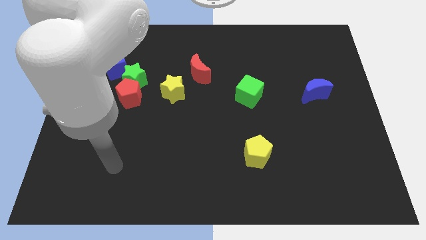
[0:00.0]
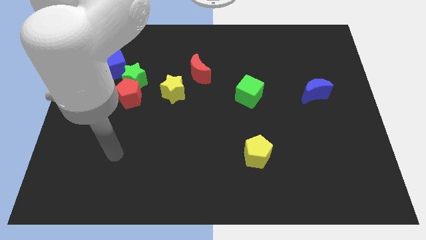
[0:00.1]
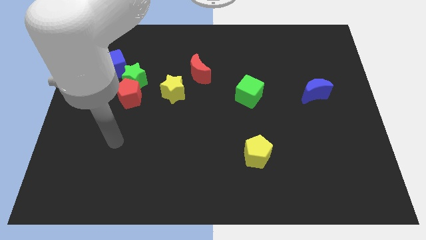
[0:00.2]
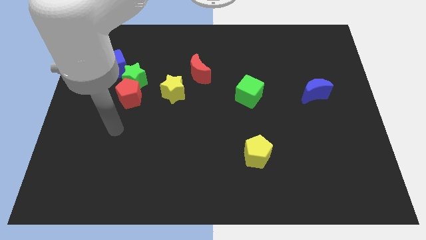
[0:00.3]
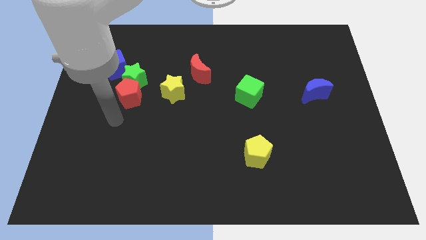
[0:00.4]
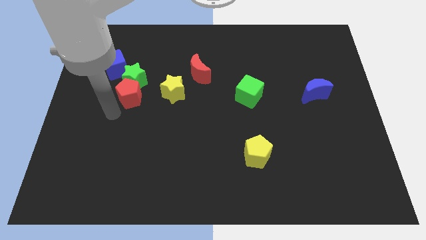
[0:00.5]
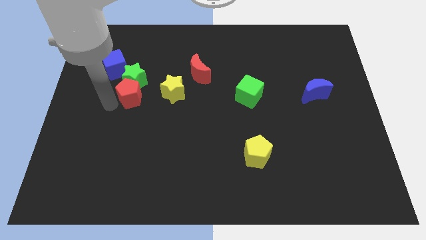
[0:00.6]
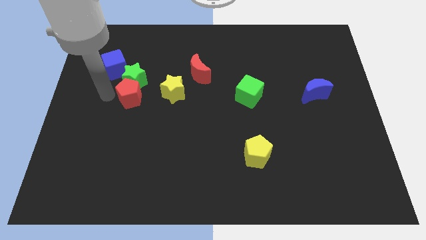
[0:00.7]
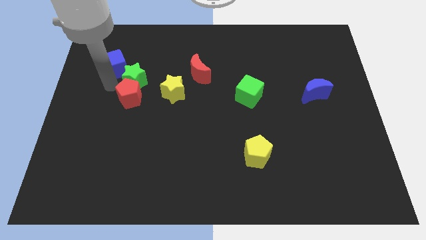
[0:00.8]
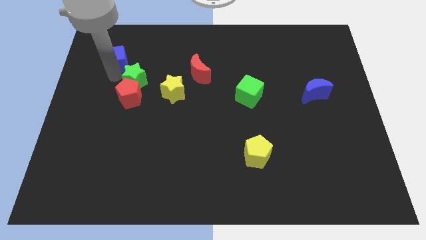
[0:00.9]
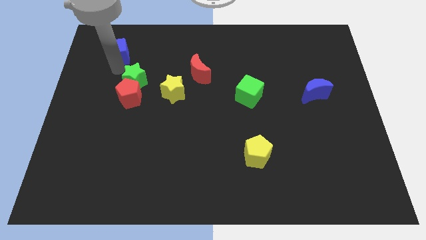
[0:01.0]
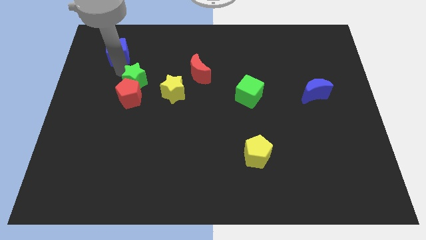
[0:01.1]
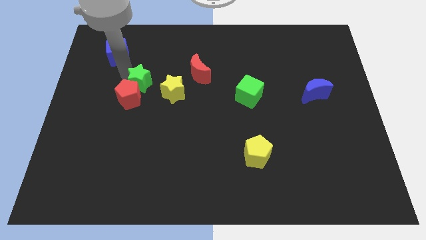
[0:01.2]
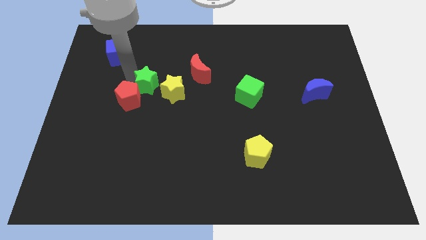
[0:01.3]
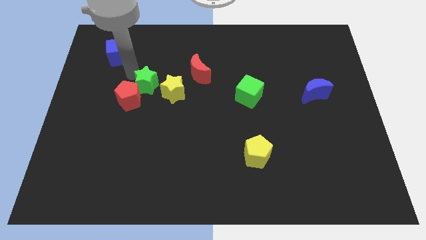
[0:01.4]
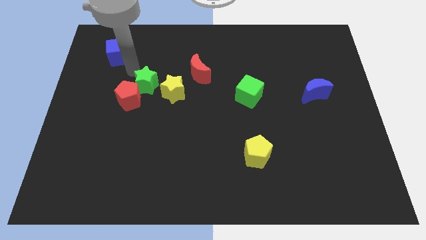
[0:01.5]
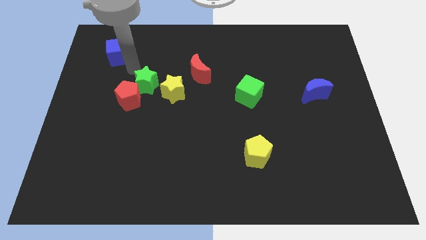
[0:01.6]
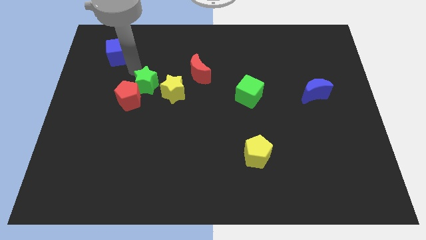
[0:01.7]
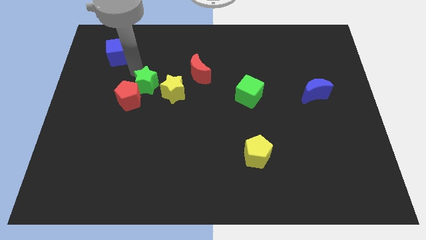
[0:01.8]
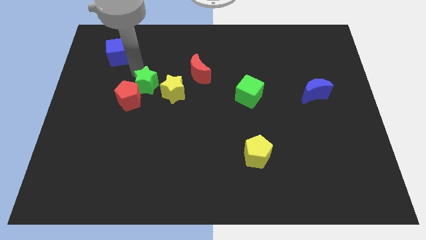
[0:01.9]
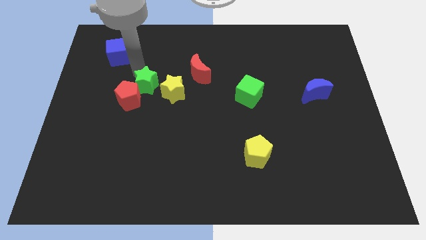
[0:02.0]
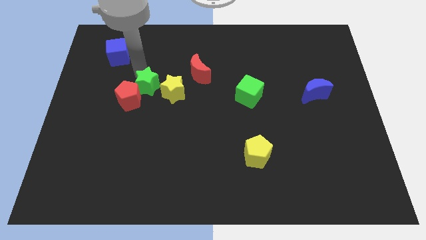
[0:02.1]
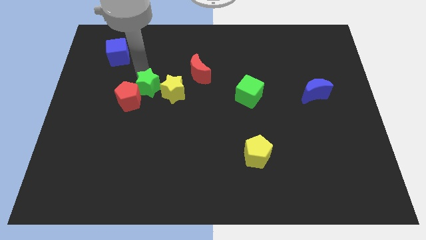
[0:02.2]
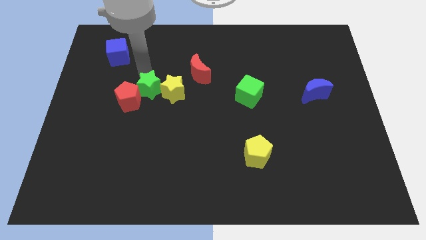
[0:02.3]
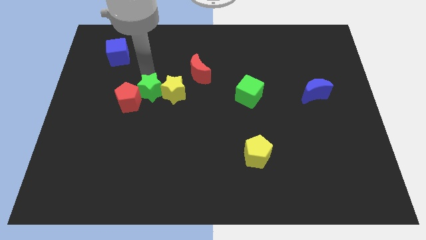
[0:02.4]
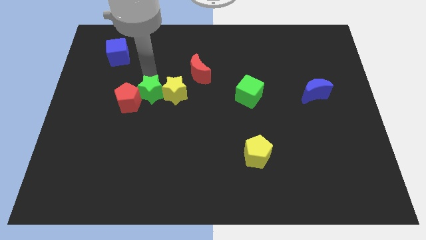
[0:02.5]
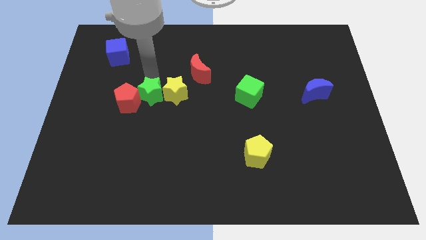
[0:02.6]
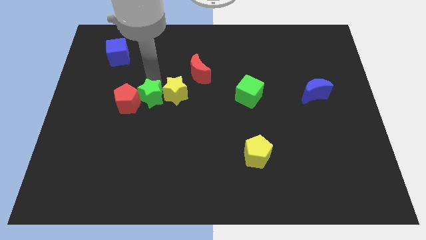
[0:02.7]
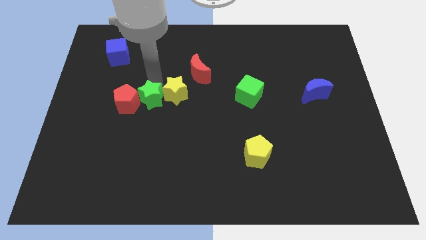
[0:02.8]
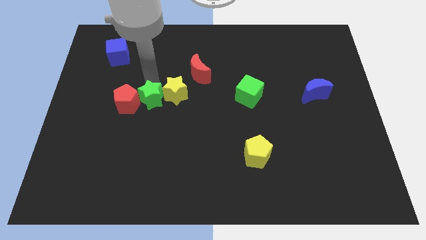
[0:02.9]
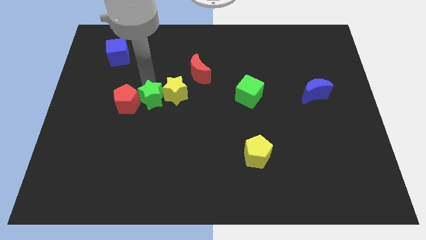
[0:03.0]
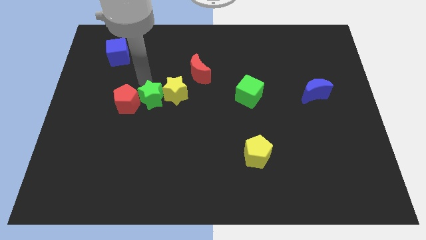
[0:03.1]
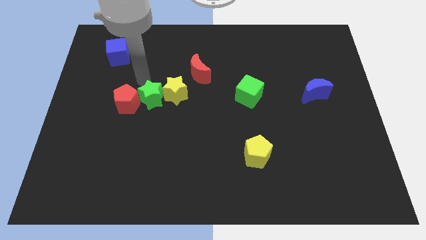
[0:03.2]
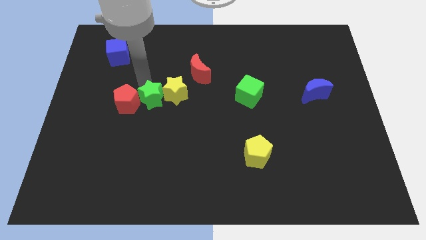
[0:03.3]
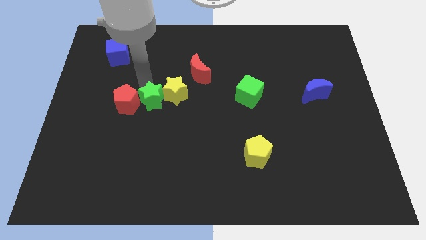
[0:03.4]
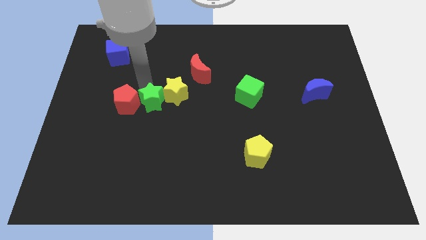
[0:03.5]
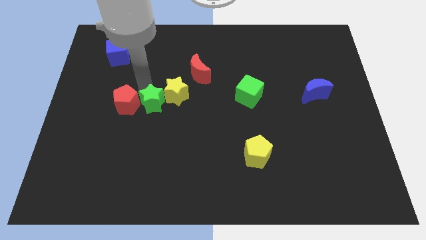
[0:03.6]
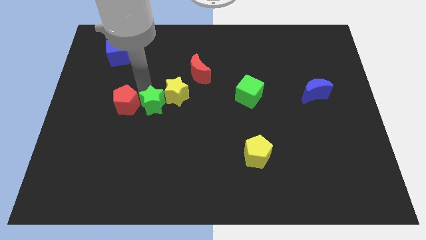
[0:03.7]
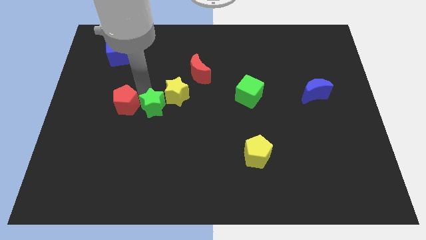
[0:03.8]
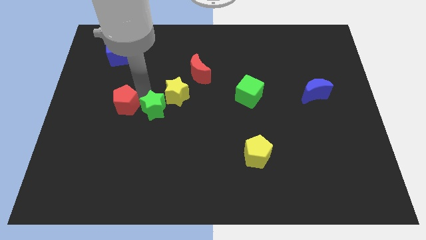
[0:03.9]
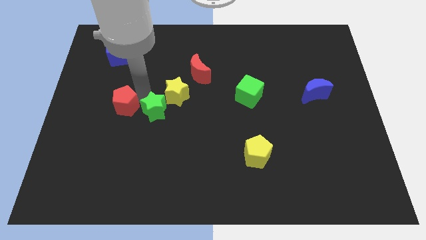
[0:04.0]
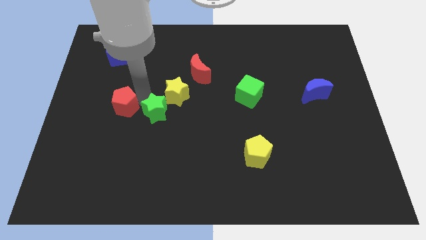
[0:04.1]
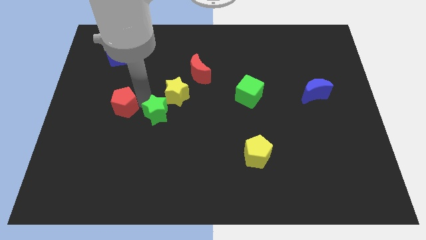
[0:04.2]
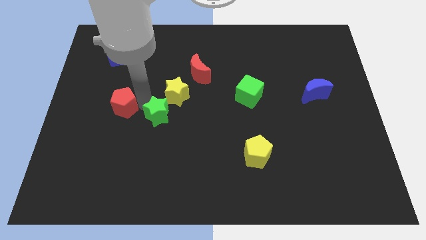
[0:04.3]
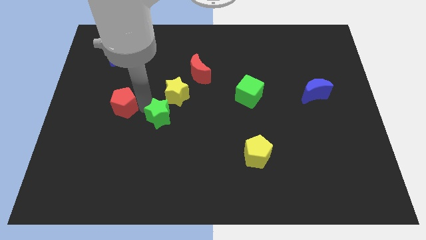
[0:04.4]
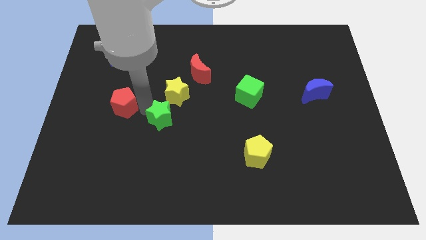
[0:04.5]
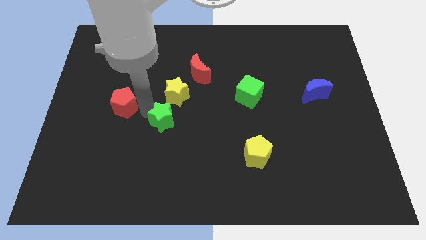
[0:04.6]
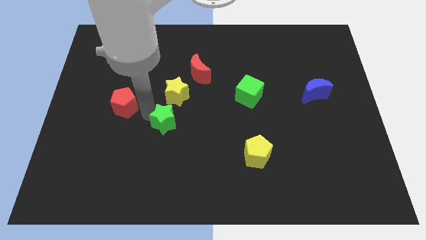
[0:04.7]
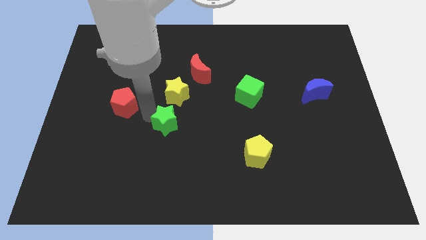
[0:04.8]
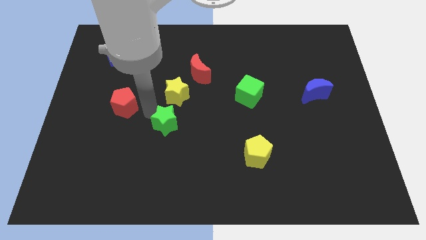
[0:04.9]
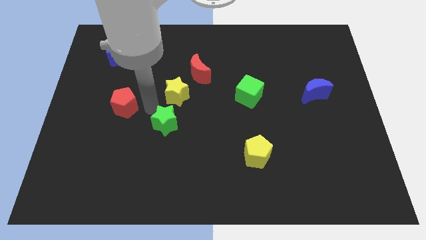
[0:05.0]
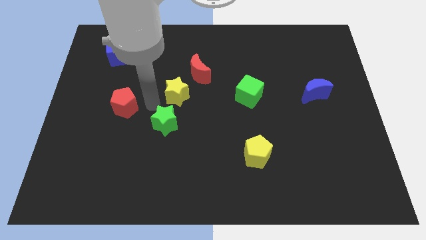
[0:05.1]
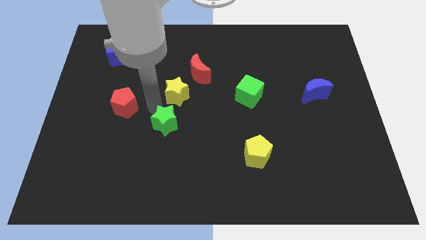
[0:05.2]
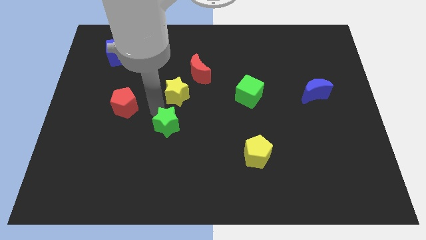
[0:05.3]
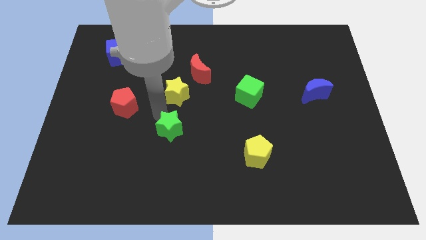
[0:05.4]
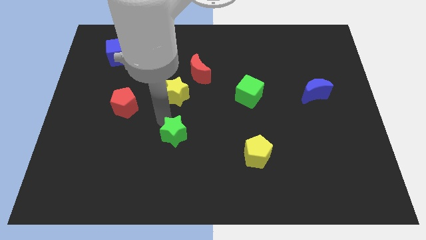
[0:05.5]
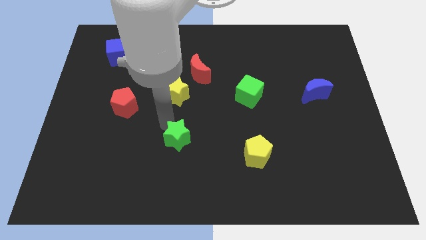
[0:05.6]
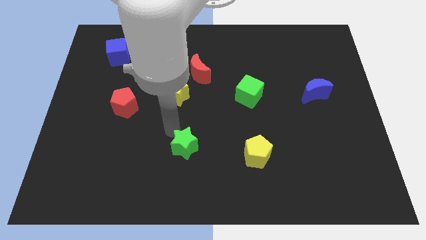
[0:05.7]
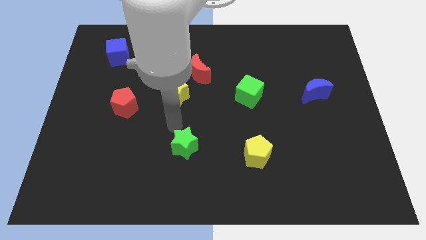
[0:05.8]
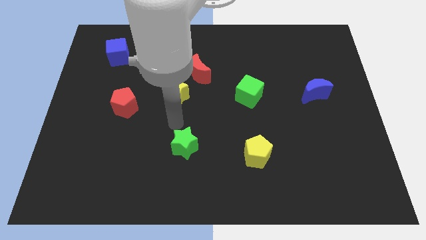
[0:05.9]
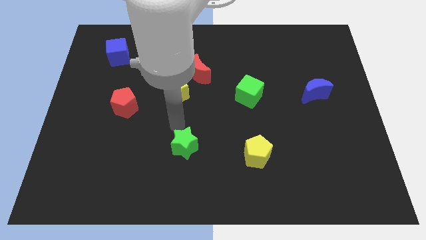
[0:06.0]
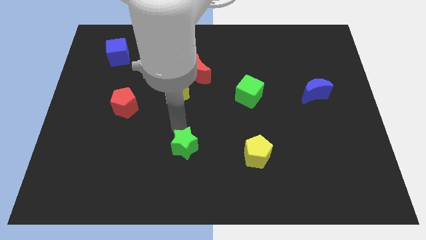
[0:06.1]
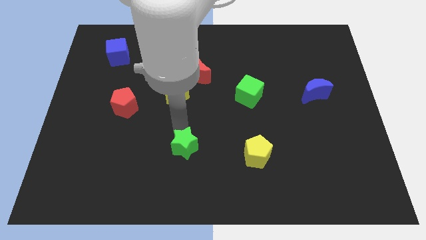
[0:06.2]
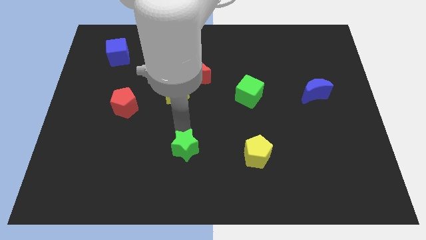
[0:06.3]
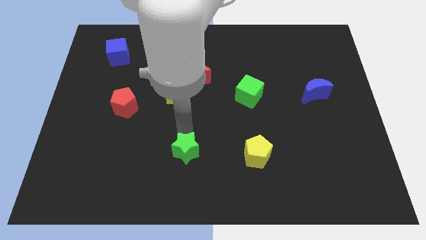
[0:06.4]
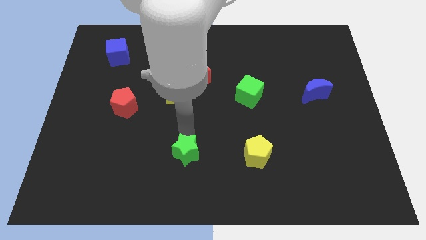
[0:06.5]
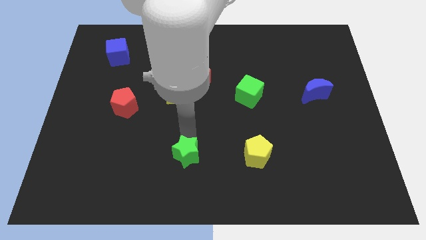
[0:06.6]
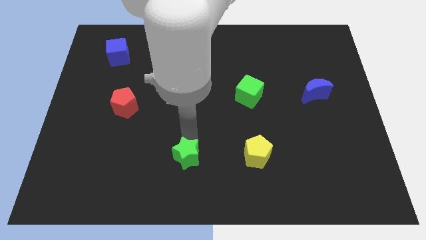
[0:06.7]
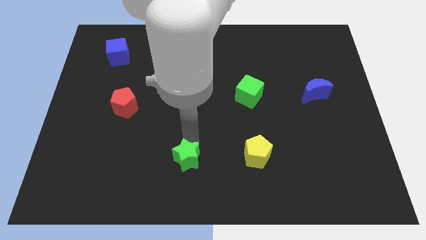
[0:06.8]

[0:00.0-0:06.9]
slide the green star to the bottom side

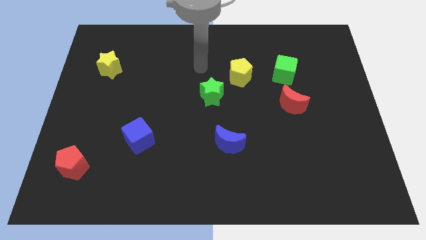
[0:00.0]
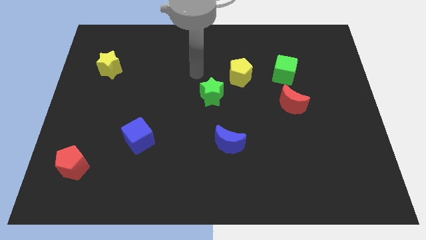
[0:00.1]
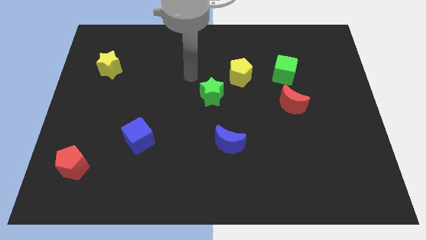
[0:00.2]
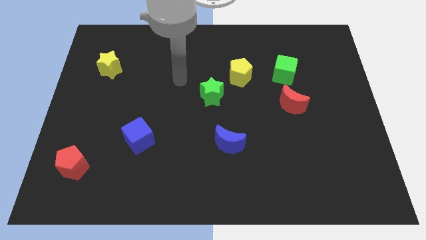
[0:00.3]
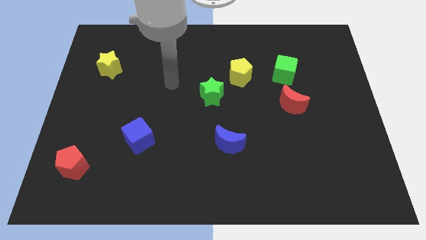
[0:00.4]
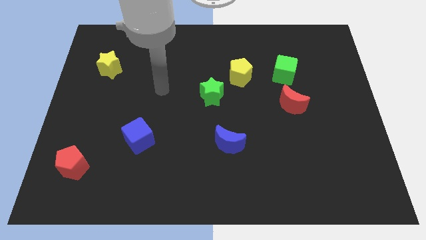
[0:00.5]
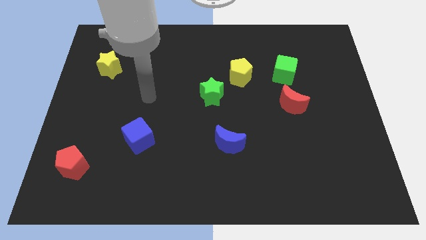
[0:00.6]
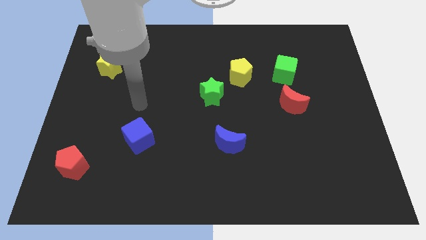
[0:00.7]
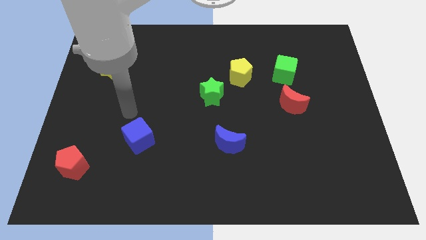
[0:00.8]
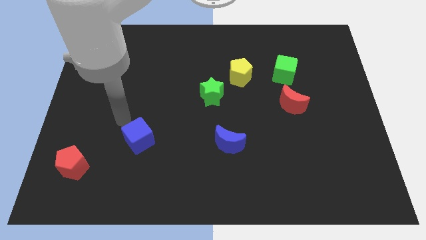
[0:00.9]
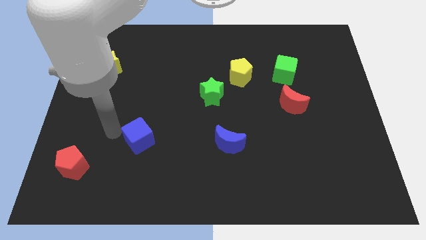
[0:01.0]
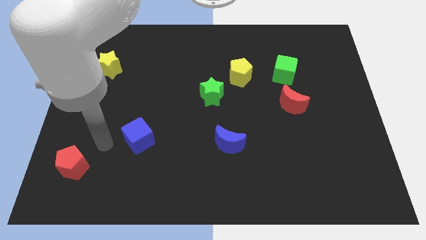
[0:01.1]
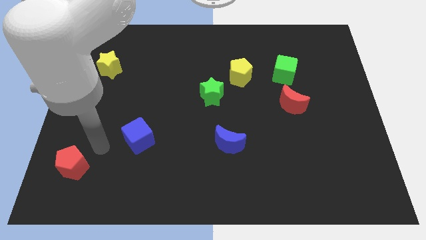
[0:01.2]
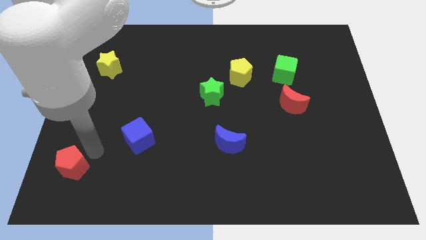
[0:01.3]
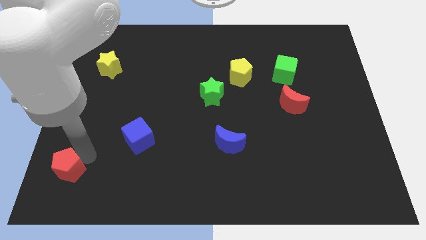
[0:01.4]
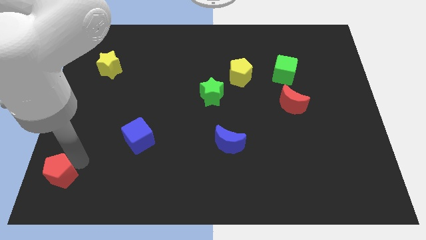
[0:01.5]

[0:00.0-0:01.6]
move the red pentagon to the bottom left
